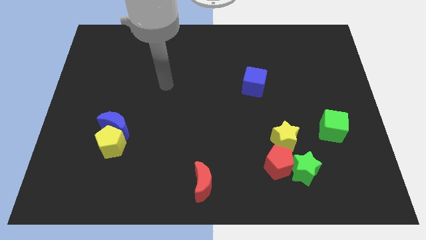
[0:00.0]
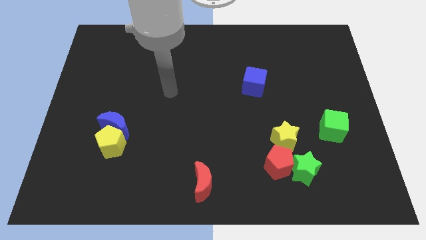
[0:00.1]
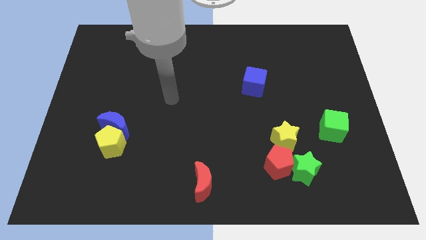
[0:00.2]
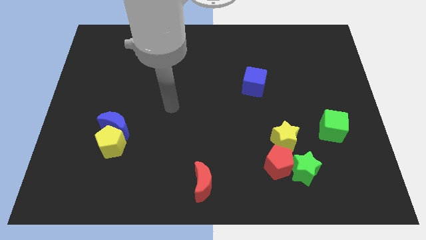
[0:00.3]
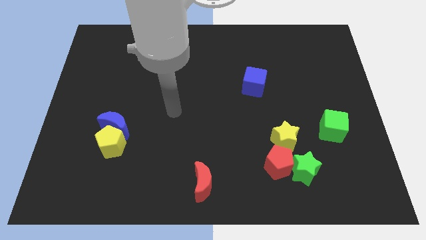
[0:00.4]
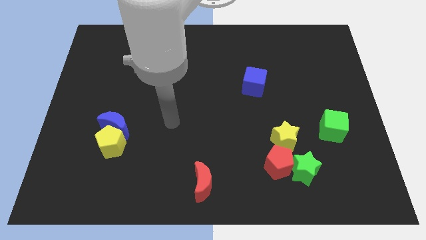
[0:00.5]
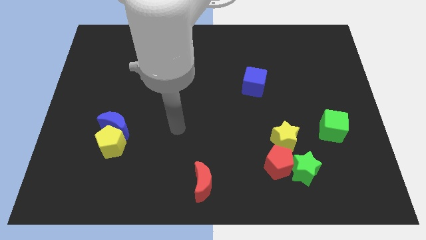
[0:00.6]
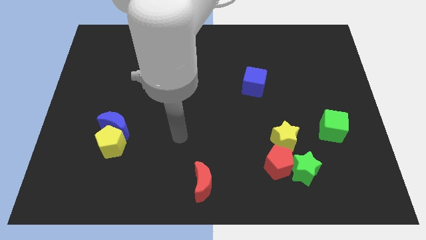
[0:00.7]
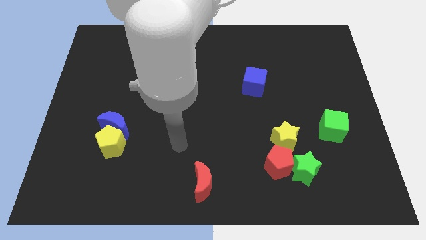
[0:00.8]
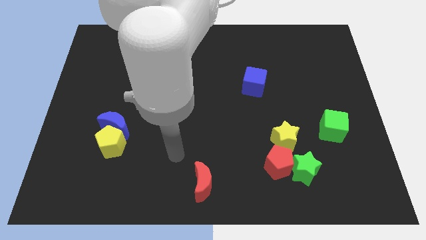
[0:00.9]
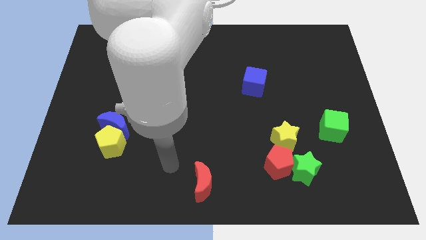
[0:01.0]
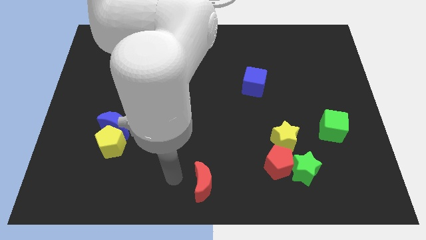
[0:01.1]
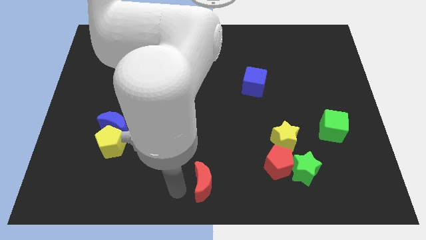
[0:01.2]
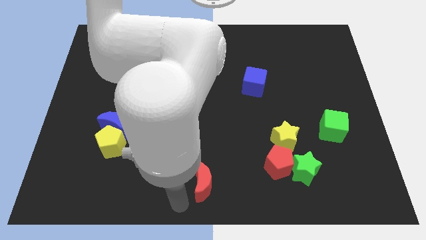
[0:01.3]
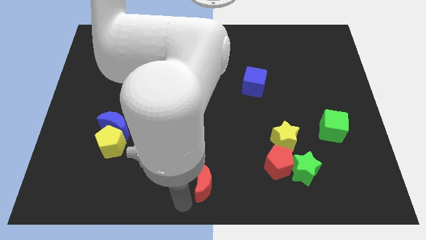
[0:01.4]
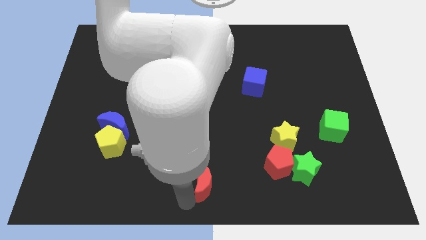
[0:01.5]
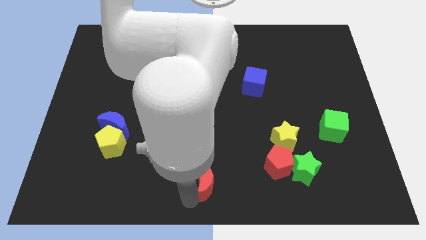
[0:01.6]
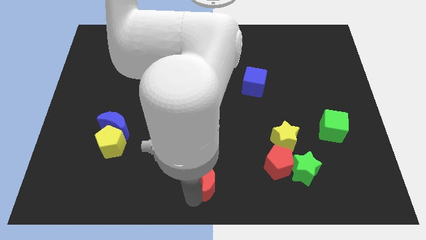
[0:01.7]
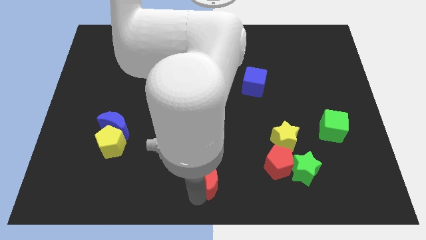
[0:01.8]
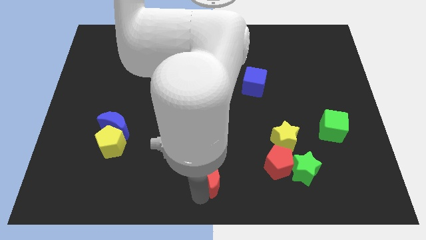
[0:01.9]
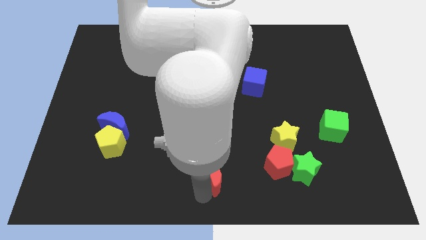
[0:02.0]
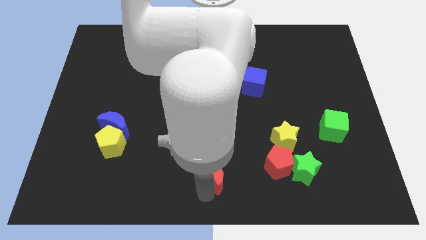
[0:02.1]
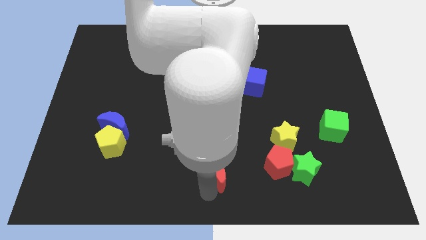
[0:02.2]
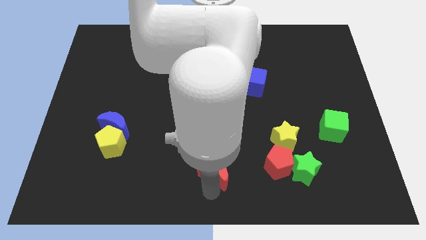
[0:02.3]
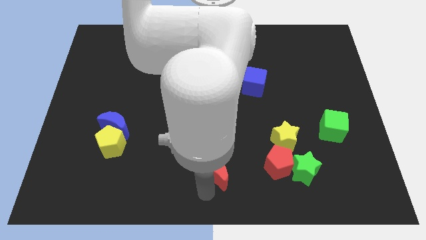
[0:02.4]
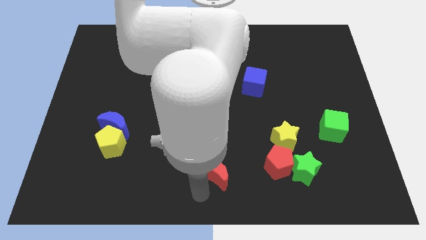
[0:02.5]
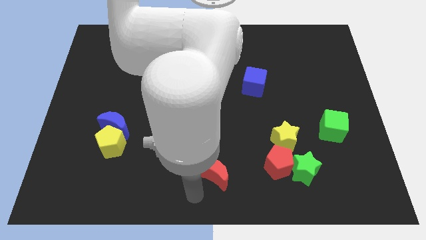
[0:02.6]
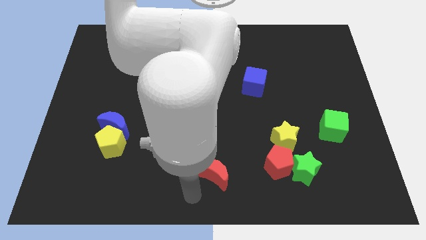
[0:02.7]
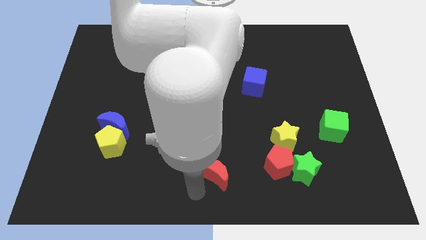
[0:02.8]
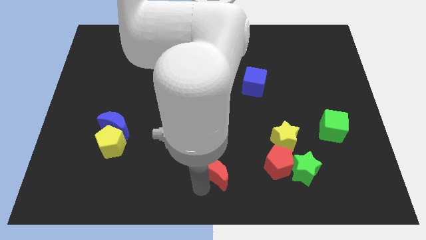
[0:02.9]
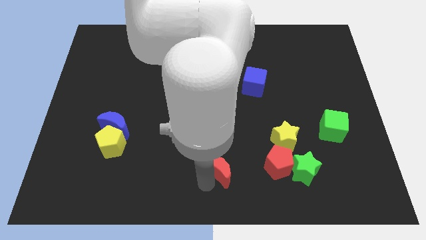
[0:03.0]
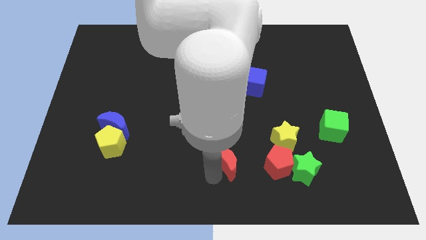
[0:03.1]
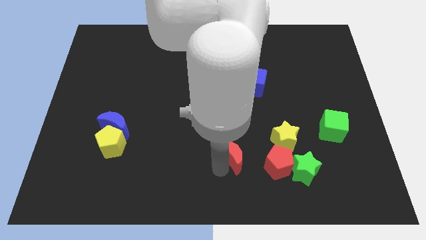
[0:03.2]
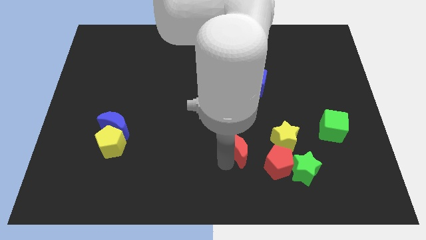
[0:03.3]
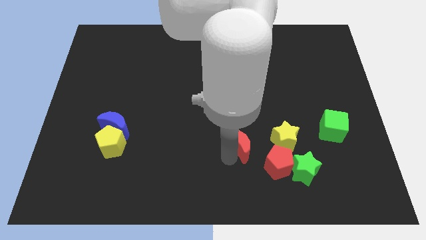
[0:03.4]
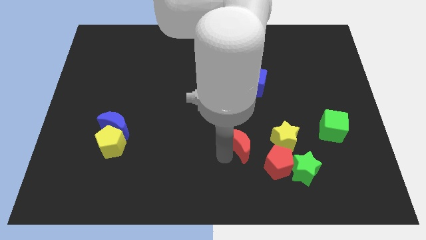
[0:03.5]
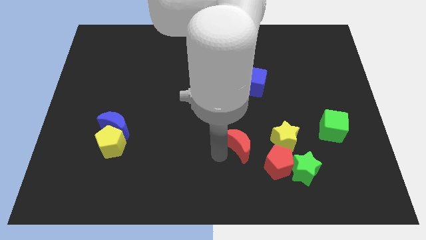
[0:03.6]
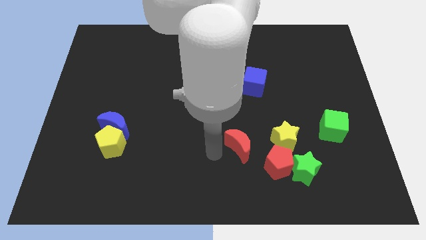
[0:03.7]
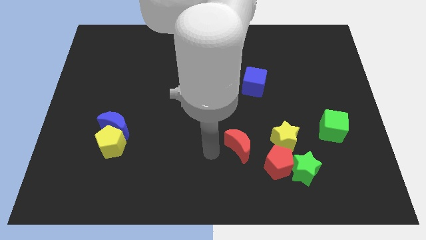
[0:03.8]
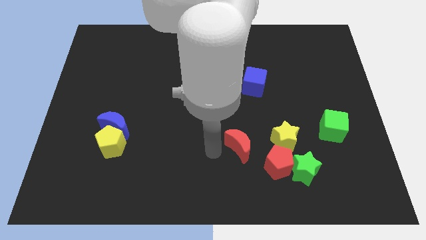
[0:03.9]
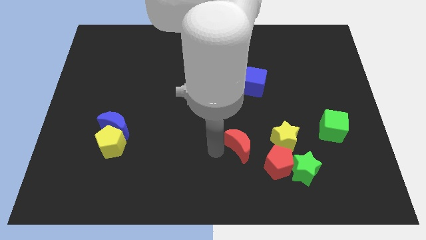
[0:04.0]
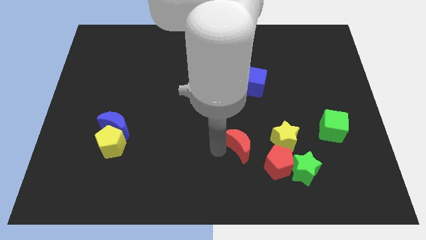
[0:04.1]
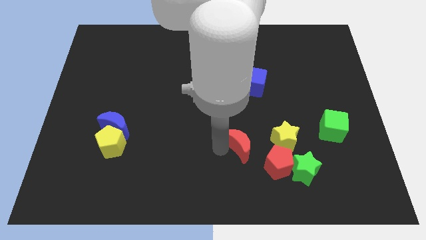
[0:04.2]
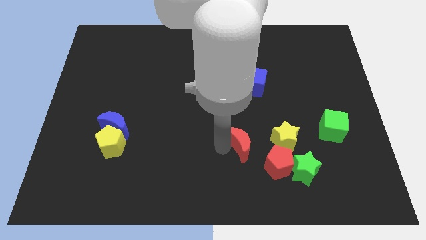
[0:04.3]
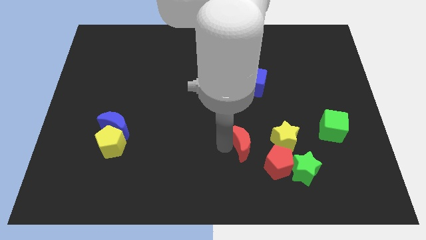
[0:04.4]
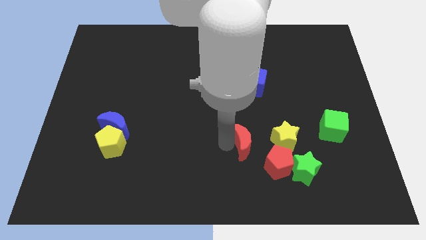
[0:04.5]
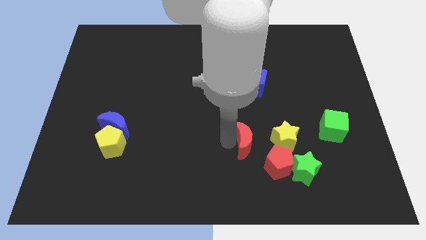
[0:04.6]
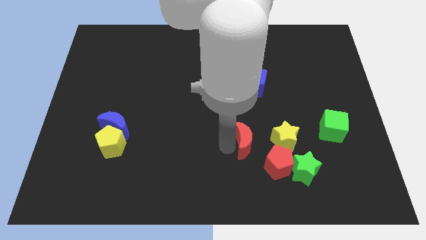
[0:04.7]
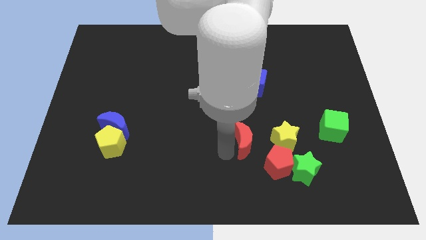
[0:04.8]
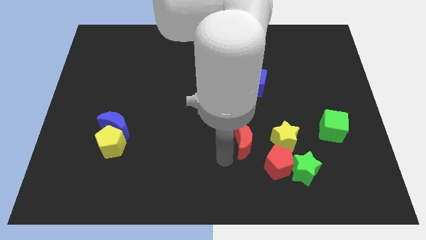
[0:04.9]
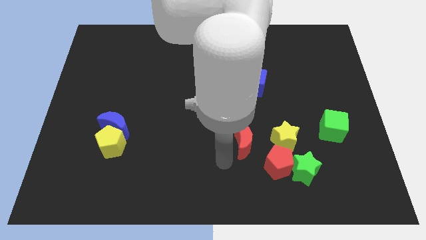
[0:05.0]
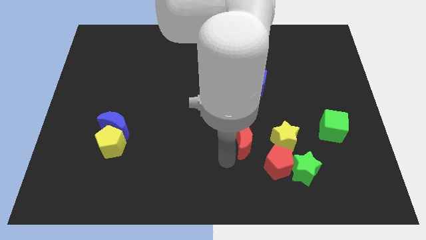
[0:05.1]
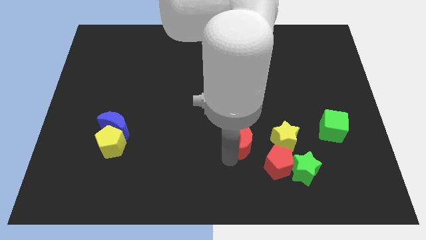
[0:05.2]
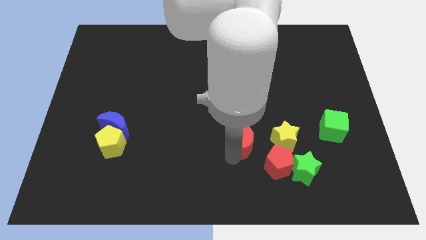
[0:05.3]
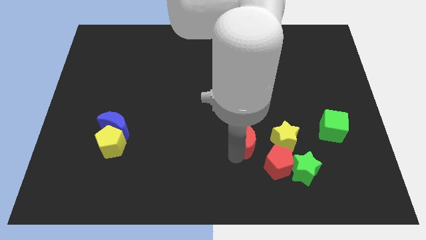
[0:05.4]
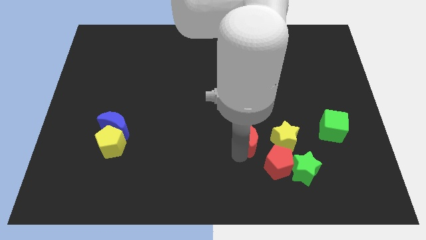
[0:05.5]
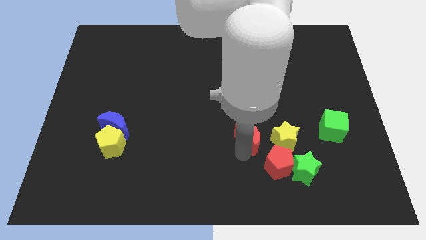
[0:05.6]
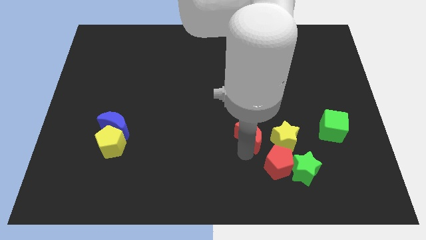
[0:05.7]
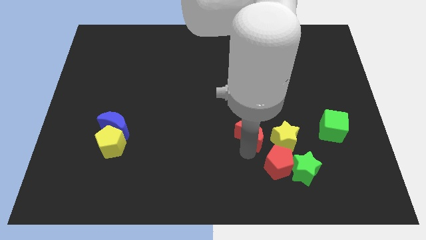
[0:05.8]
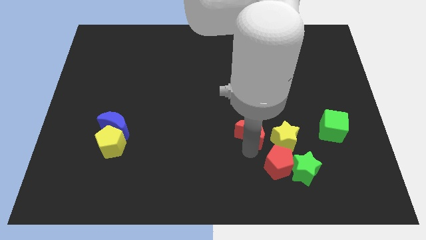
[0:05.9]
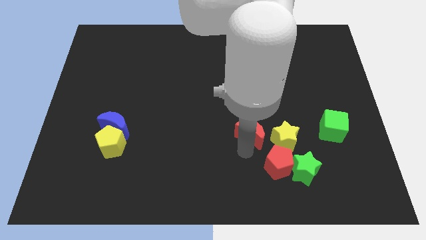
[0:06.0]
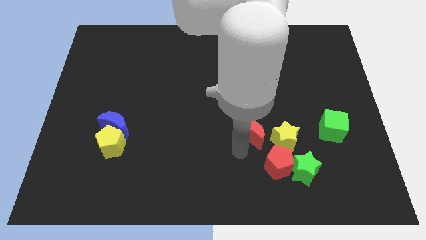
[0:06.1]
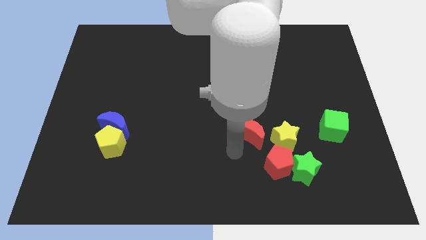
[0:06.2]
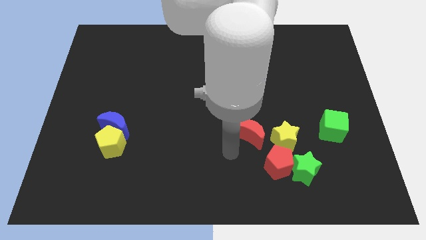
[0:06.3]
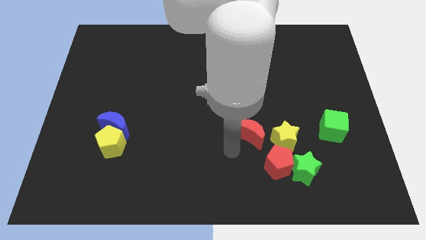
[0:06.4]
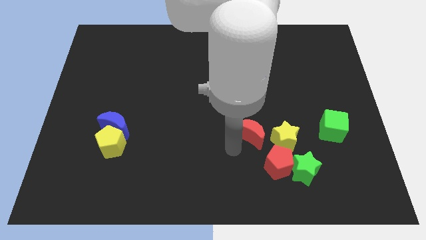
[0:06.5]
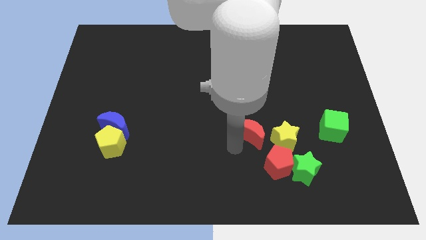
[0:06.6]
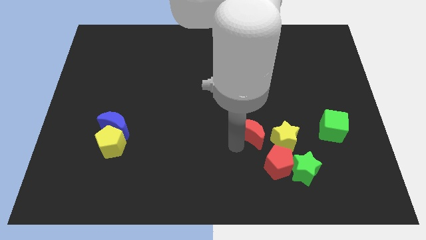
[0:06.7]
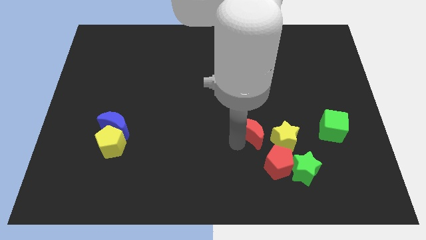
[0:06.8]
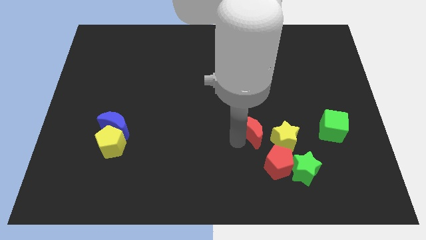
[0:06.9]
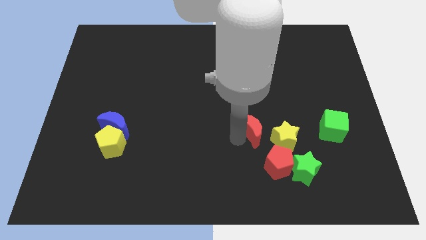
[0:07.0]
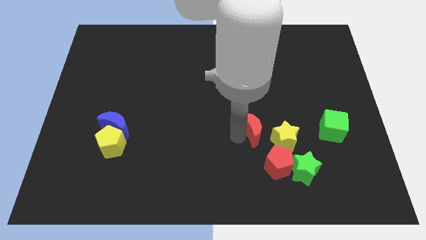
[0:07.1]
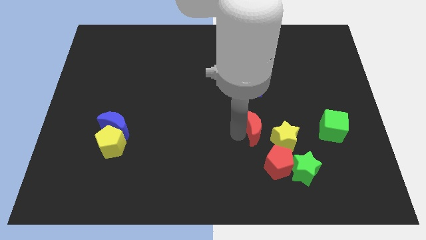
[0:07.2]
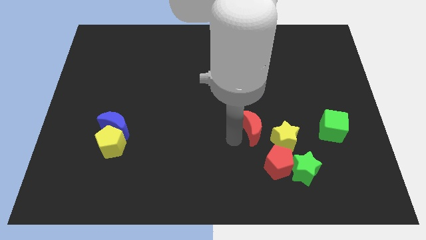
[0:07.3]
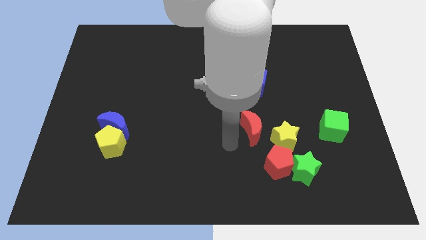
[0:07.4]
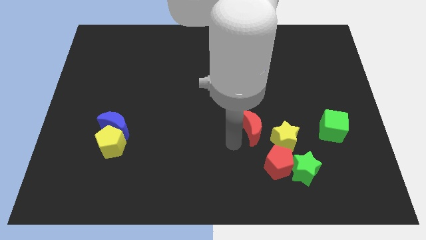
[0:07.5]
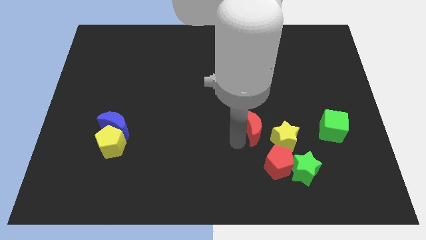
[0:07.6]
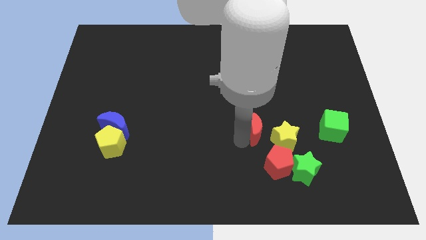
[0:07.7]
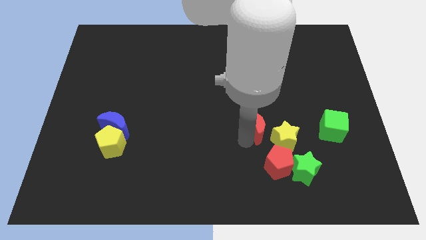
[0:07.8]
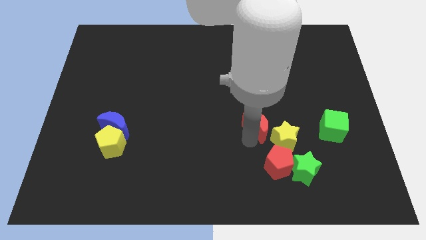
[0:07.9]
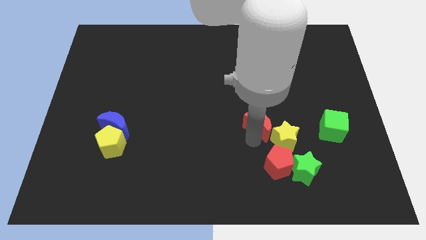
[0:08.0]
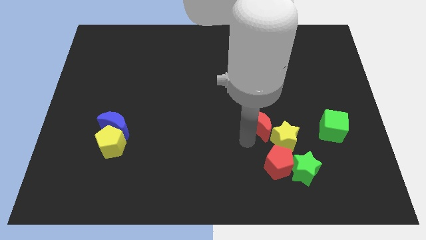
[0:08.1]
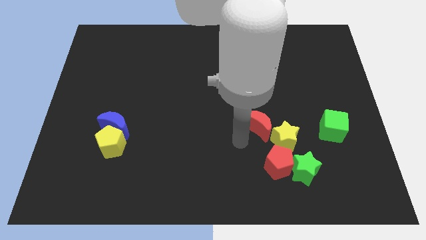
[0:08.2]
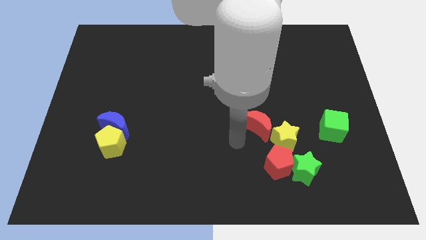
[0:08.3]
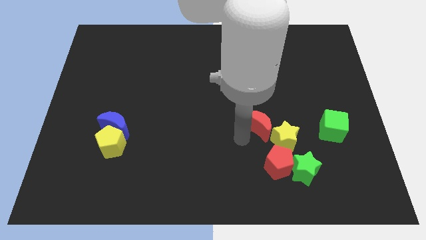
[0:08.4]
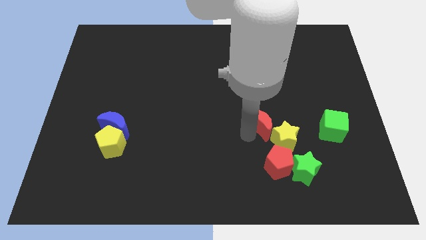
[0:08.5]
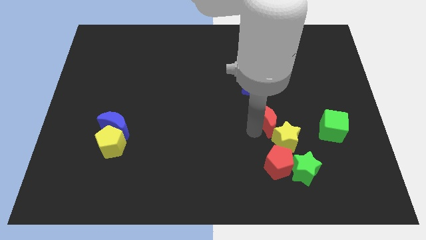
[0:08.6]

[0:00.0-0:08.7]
slide the red moon diagonally upwards and right
